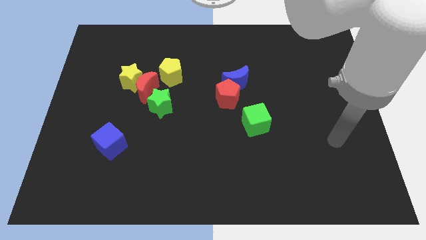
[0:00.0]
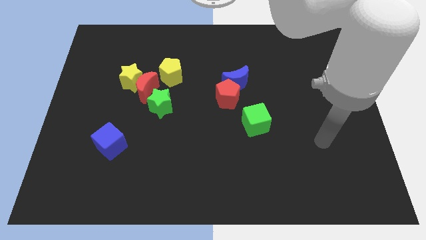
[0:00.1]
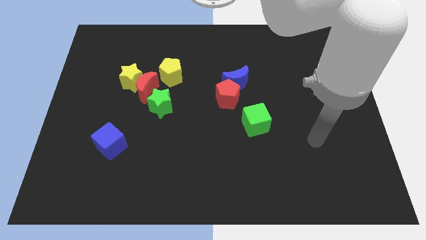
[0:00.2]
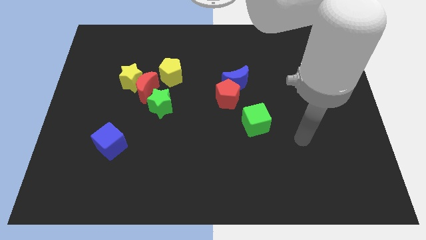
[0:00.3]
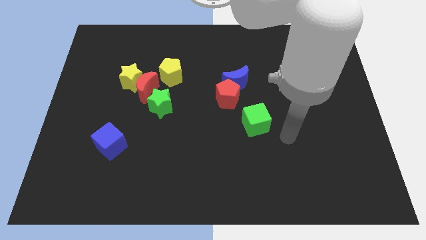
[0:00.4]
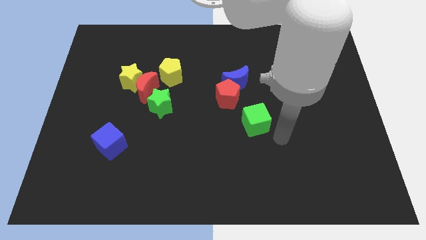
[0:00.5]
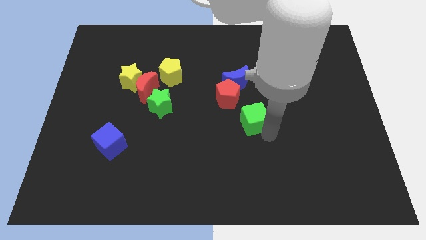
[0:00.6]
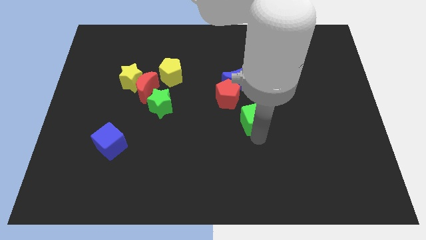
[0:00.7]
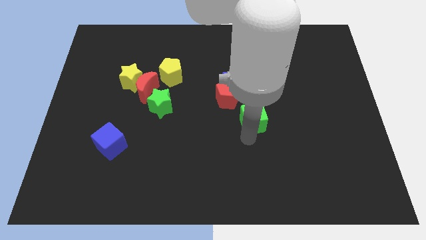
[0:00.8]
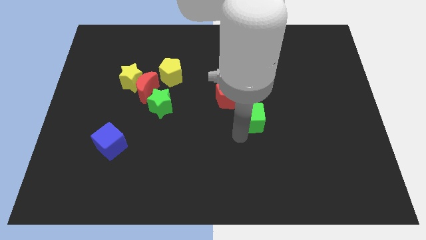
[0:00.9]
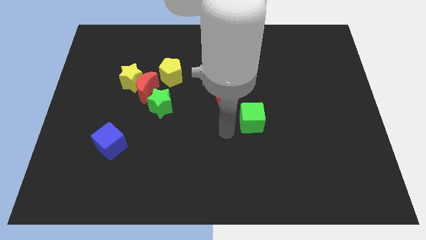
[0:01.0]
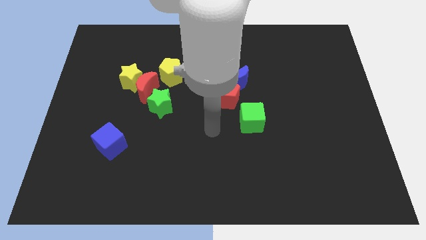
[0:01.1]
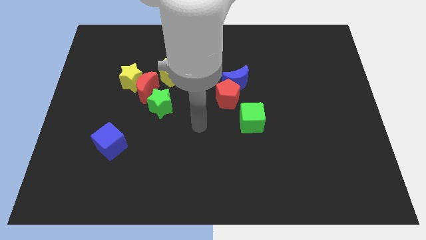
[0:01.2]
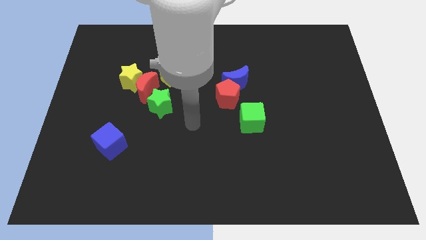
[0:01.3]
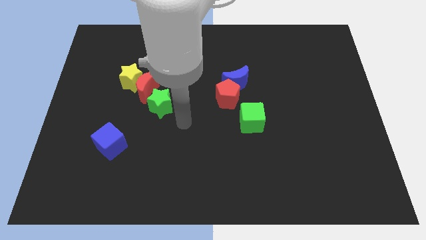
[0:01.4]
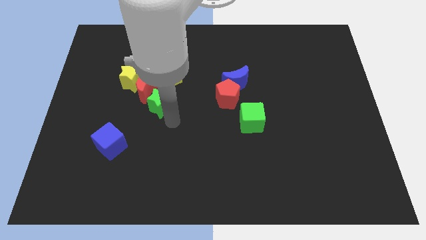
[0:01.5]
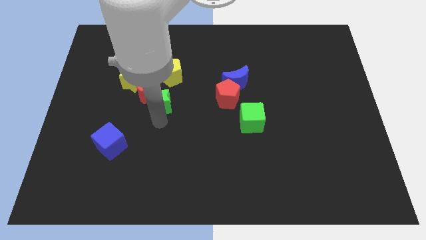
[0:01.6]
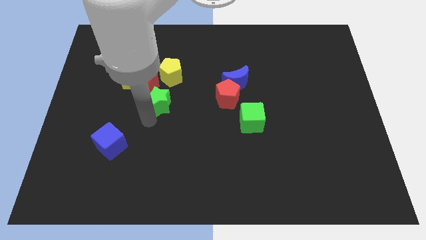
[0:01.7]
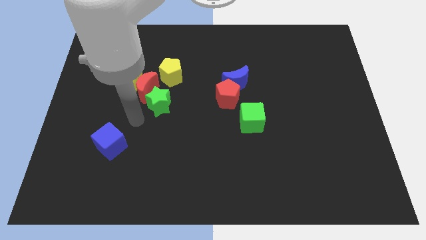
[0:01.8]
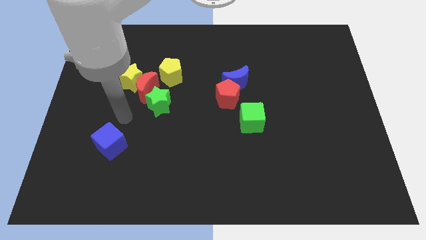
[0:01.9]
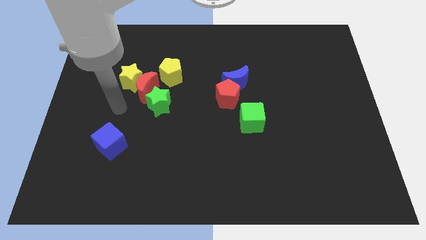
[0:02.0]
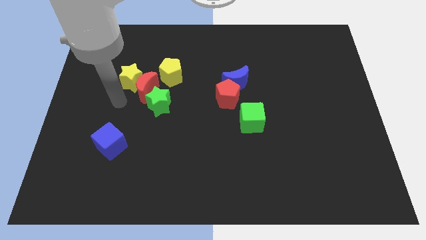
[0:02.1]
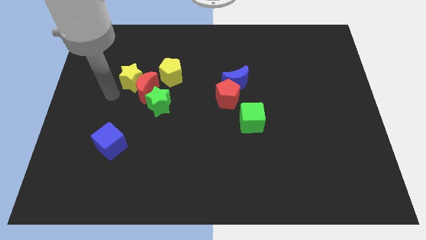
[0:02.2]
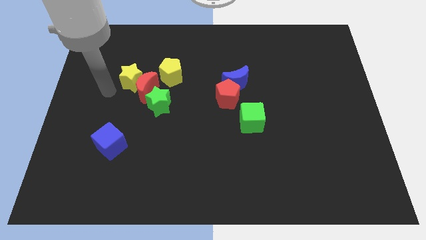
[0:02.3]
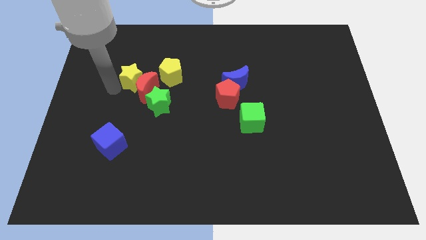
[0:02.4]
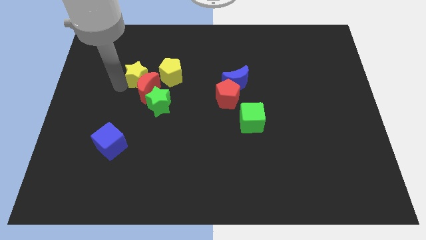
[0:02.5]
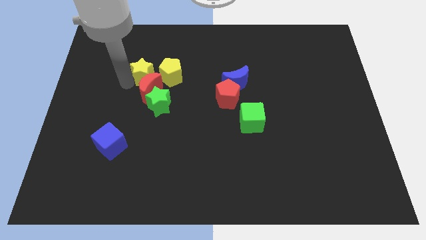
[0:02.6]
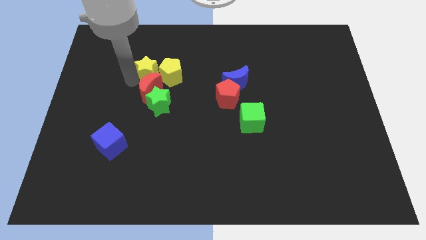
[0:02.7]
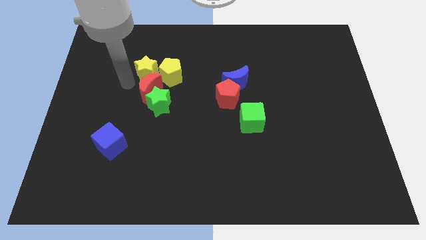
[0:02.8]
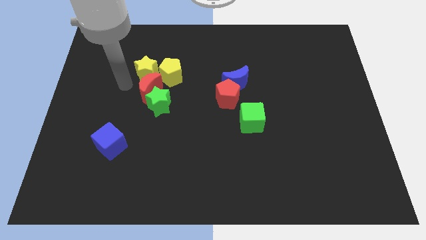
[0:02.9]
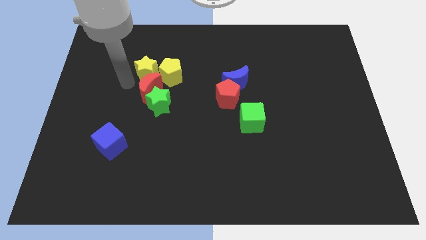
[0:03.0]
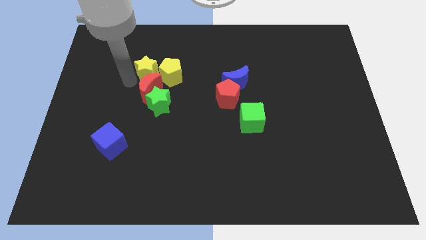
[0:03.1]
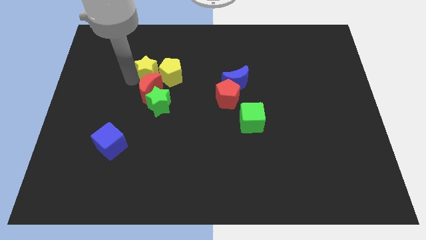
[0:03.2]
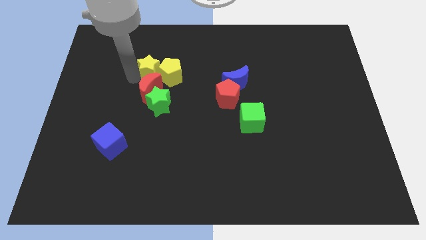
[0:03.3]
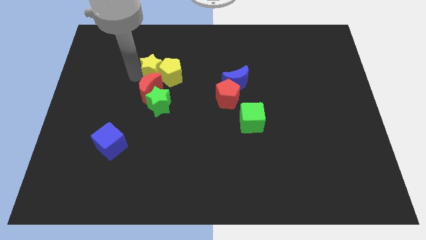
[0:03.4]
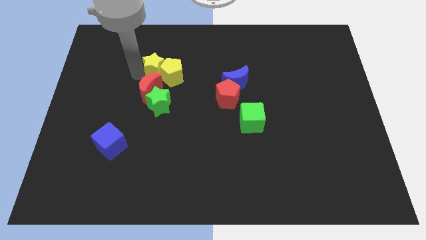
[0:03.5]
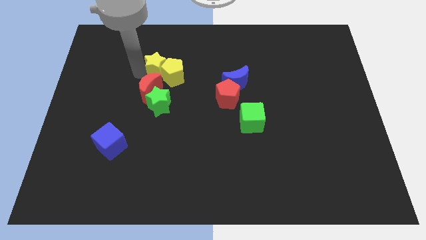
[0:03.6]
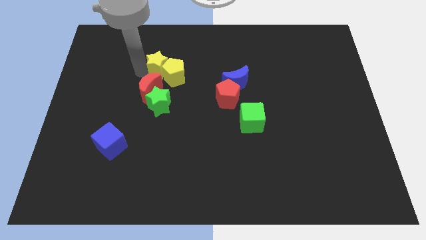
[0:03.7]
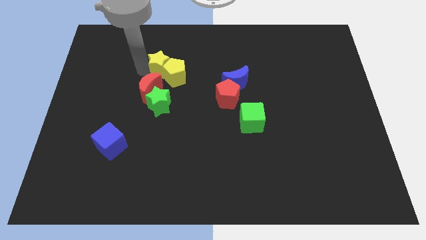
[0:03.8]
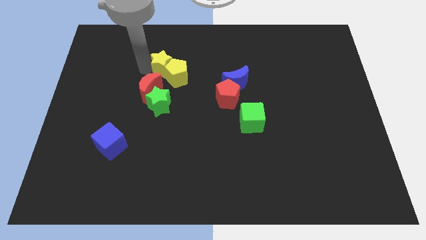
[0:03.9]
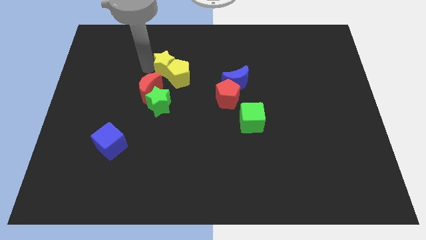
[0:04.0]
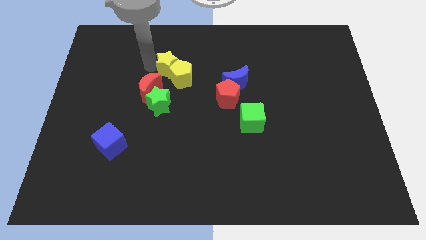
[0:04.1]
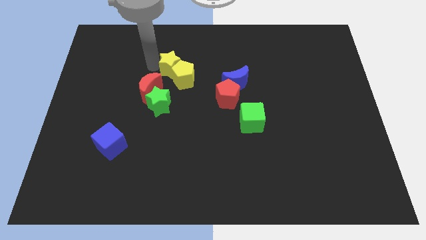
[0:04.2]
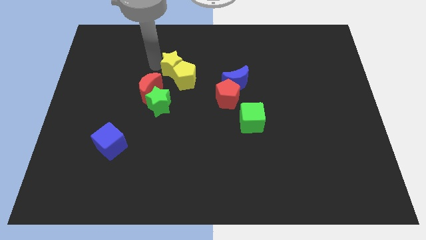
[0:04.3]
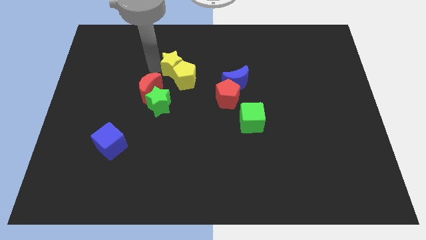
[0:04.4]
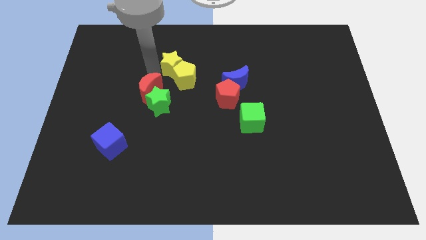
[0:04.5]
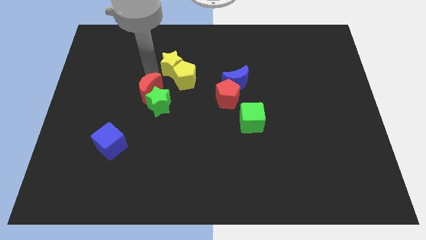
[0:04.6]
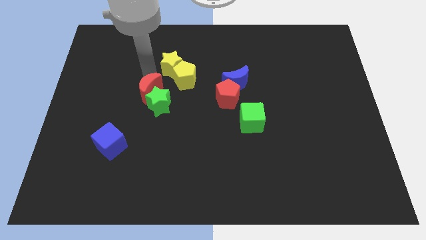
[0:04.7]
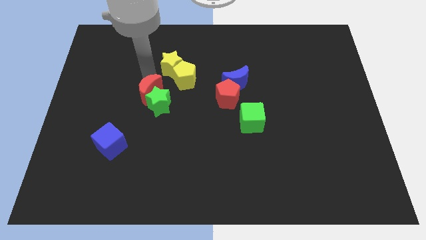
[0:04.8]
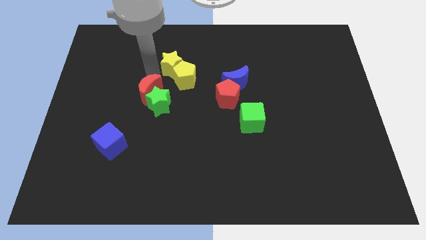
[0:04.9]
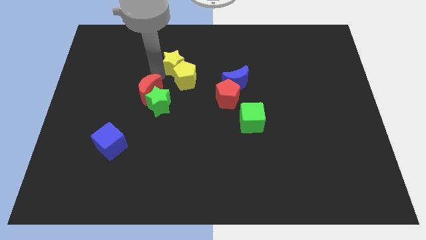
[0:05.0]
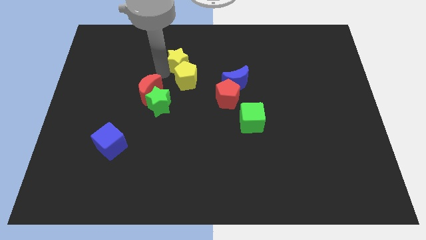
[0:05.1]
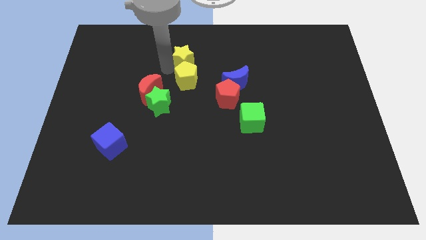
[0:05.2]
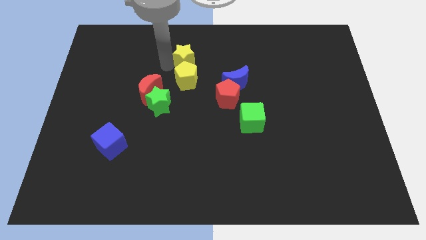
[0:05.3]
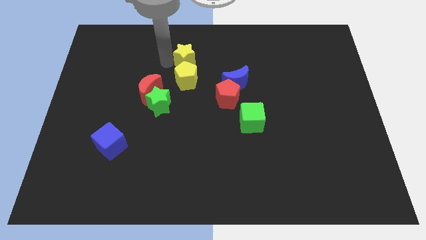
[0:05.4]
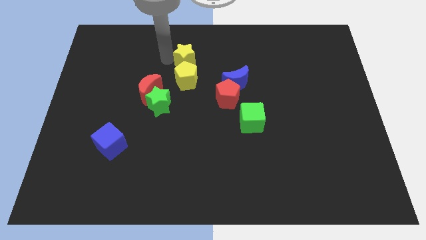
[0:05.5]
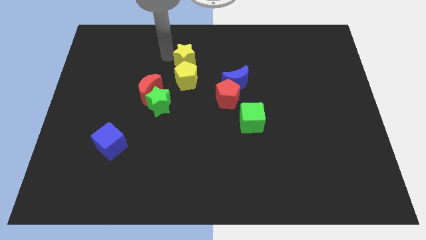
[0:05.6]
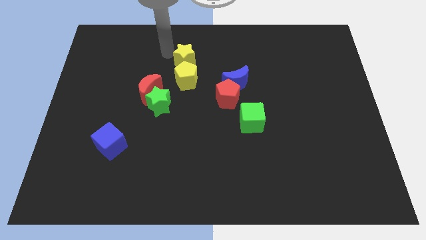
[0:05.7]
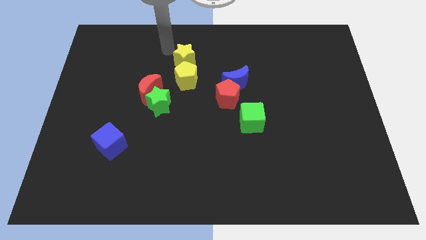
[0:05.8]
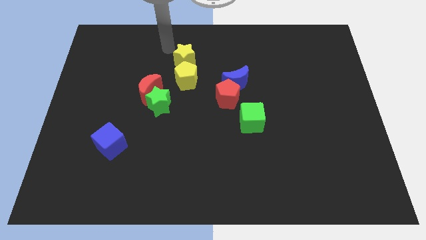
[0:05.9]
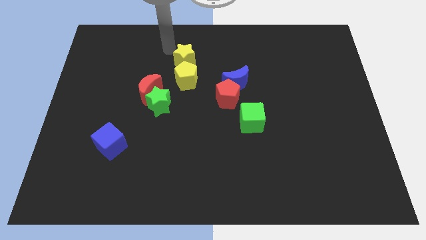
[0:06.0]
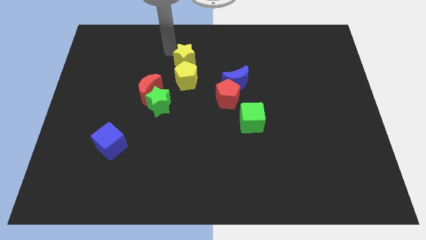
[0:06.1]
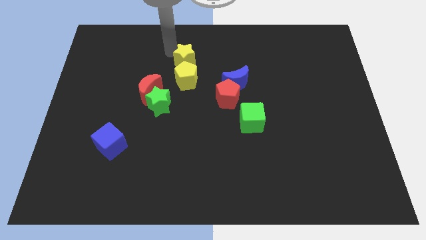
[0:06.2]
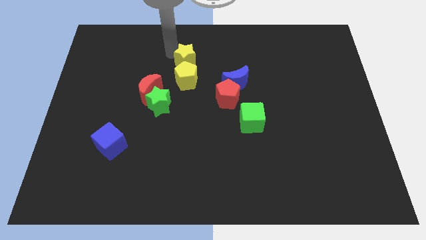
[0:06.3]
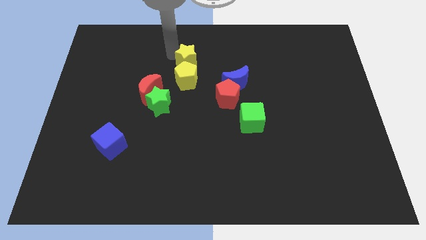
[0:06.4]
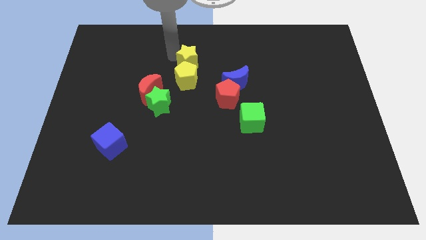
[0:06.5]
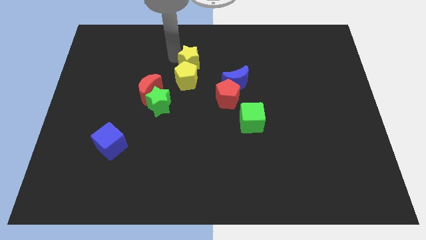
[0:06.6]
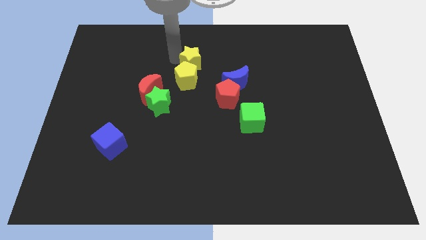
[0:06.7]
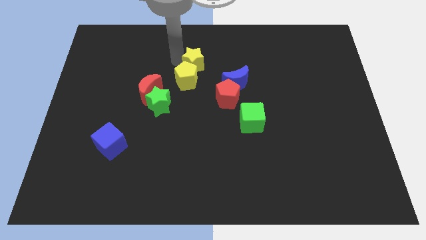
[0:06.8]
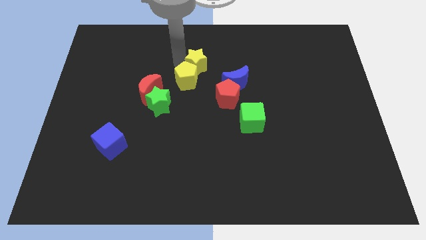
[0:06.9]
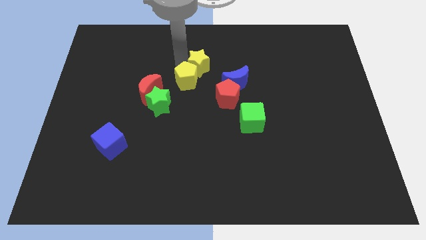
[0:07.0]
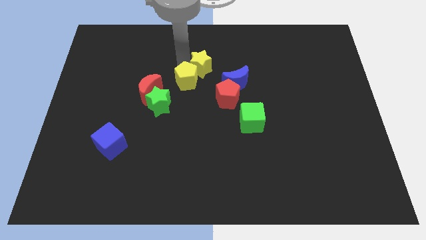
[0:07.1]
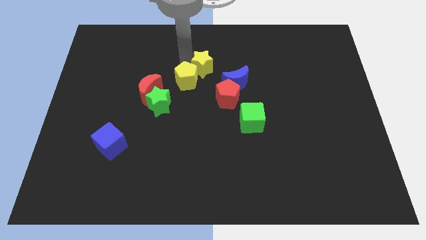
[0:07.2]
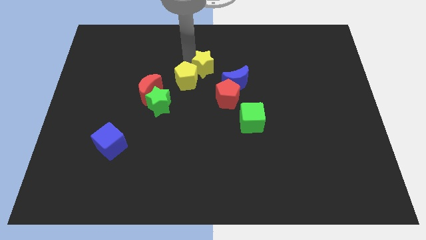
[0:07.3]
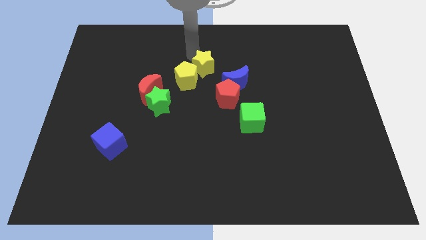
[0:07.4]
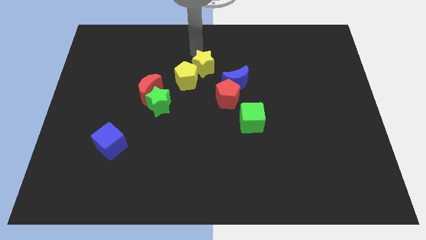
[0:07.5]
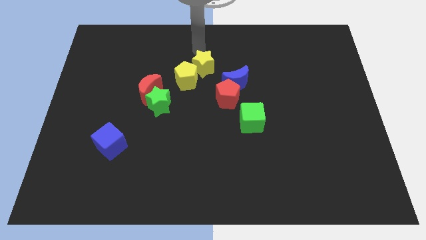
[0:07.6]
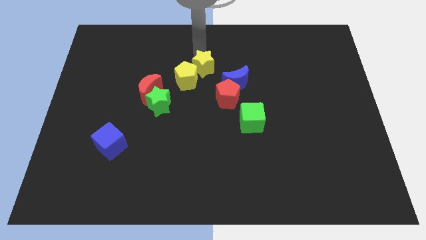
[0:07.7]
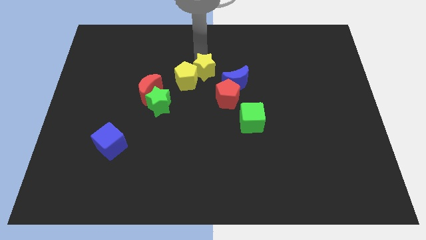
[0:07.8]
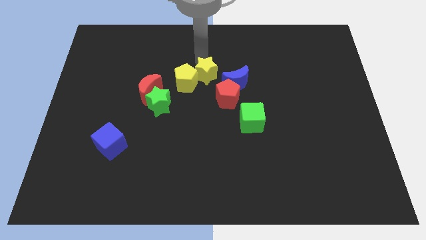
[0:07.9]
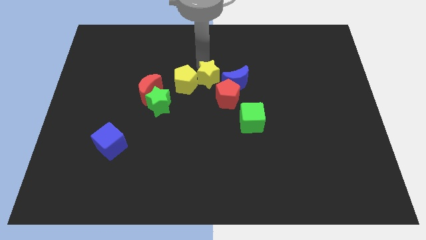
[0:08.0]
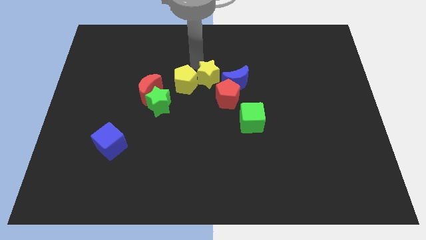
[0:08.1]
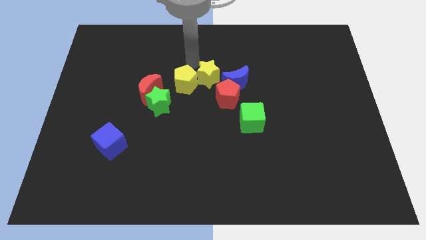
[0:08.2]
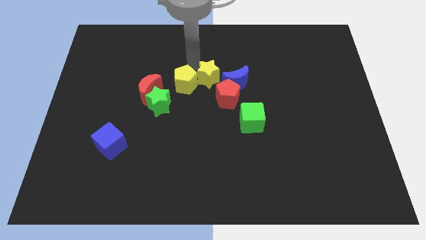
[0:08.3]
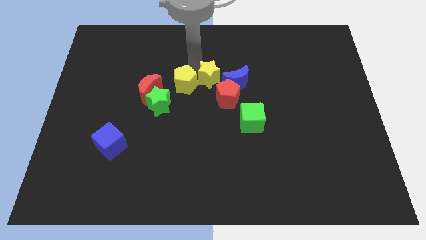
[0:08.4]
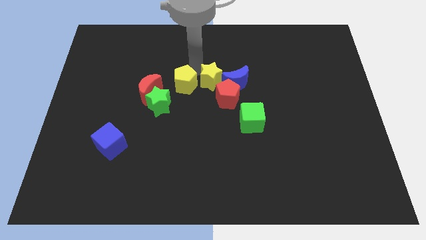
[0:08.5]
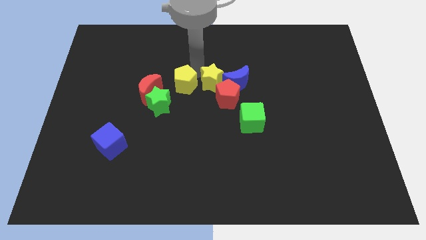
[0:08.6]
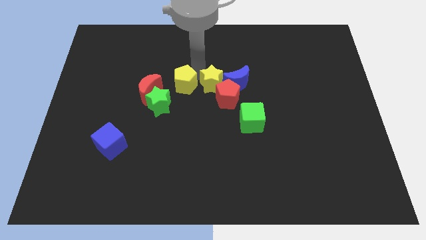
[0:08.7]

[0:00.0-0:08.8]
put the yellow star to the red pentagon
